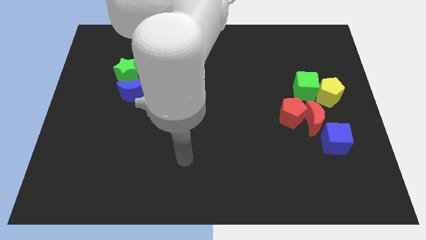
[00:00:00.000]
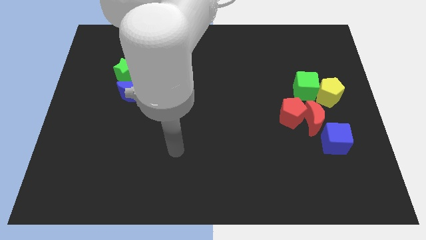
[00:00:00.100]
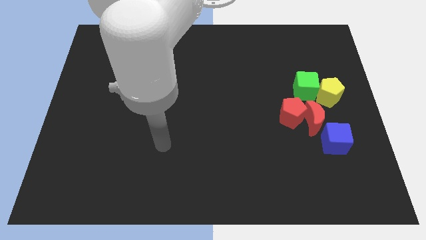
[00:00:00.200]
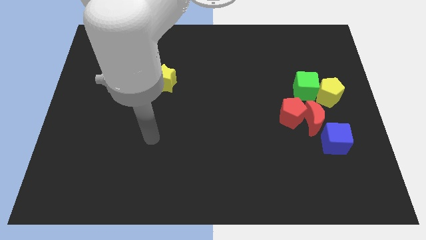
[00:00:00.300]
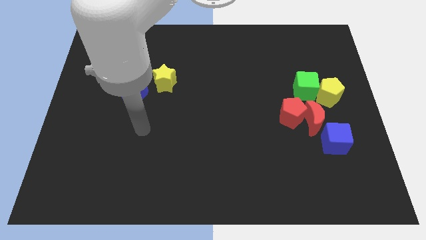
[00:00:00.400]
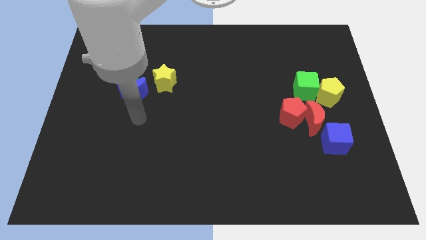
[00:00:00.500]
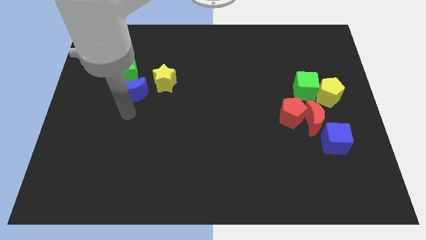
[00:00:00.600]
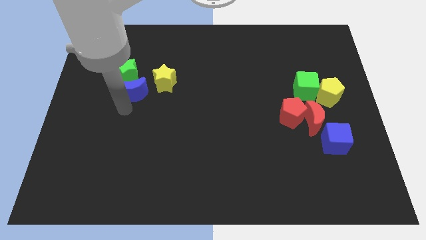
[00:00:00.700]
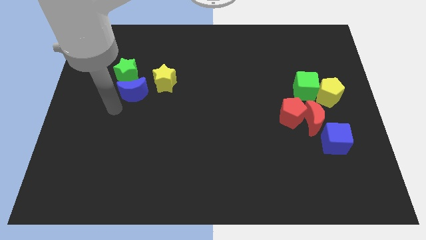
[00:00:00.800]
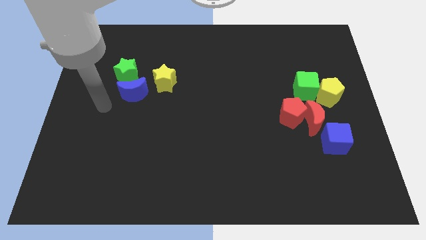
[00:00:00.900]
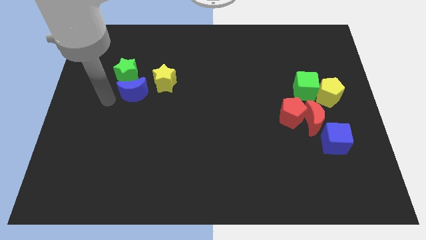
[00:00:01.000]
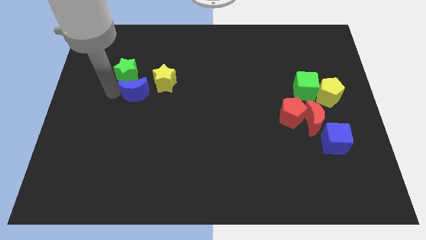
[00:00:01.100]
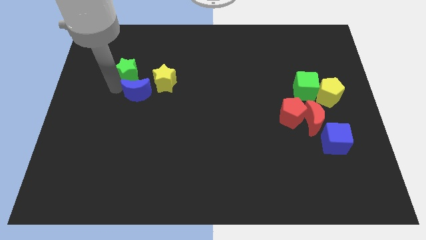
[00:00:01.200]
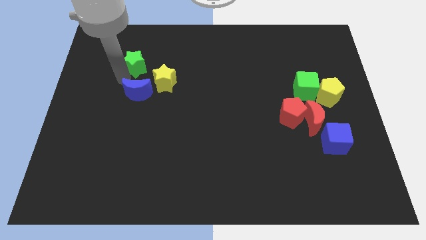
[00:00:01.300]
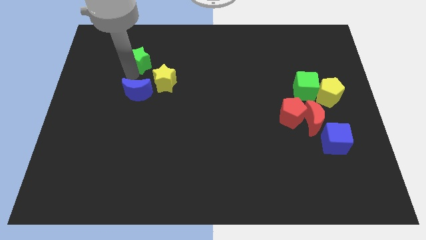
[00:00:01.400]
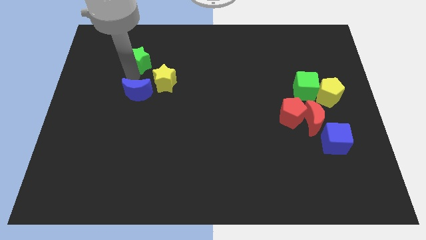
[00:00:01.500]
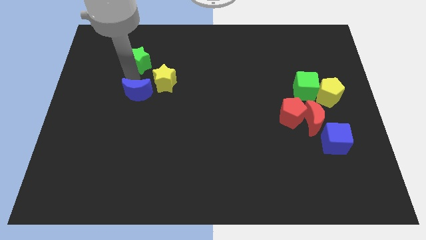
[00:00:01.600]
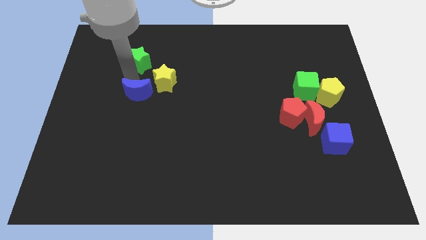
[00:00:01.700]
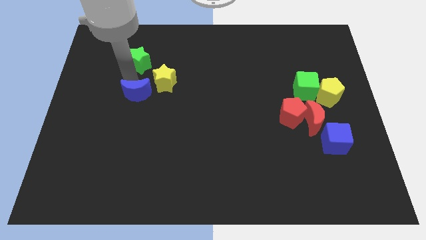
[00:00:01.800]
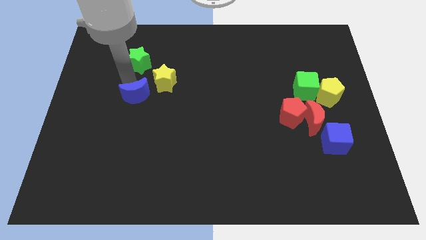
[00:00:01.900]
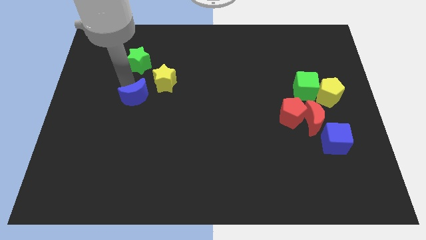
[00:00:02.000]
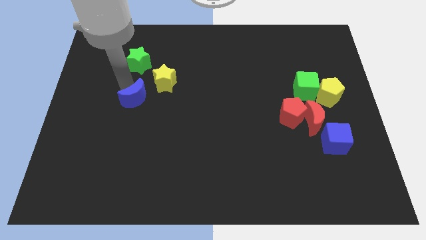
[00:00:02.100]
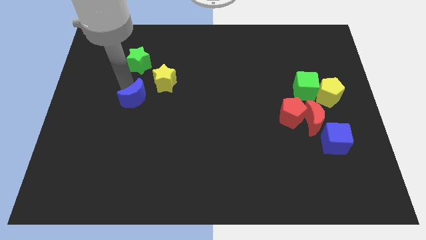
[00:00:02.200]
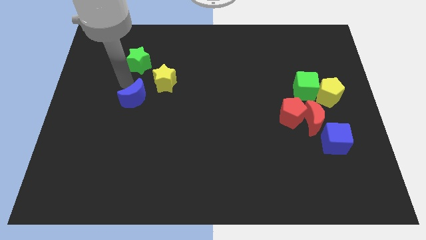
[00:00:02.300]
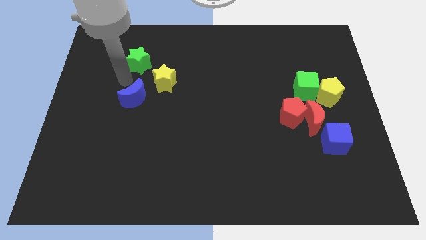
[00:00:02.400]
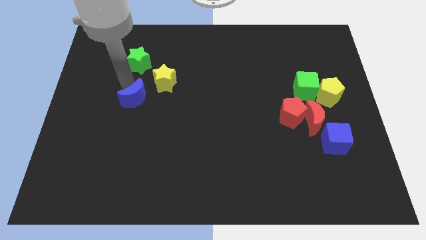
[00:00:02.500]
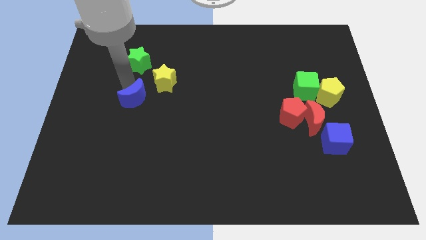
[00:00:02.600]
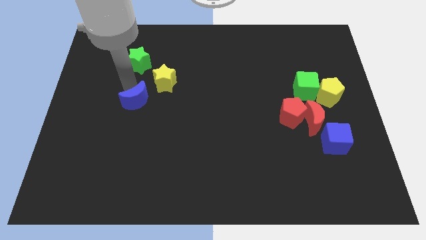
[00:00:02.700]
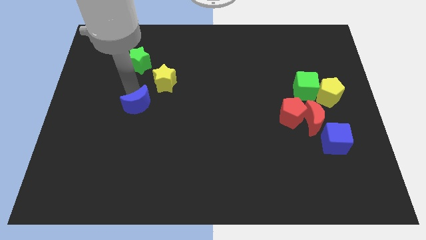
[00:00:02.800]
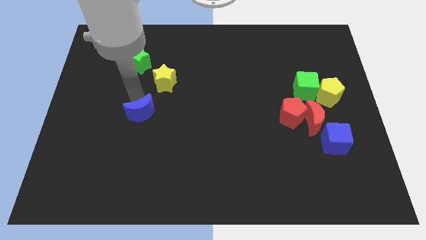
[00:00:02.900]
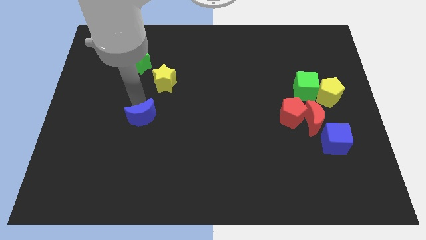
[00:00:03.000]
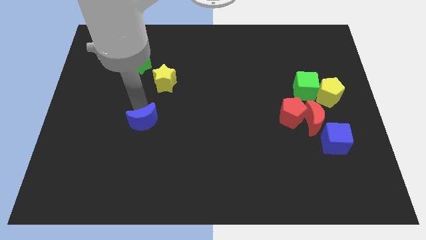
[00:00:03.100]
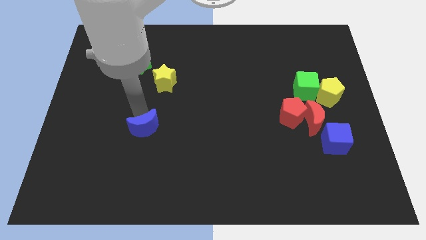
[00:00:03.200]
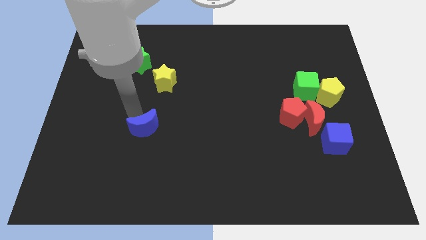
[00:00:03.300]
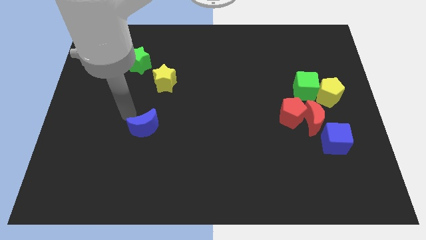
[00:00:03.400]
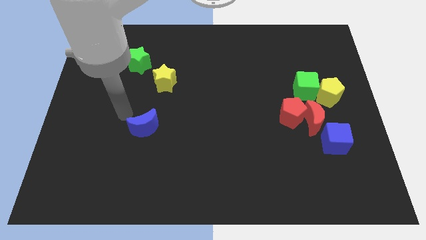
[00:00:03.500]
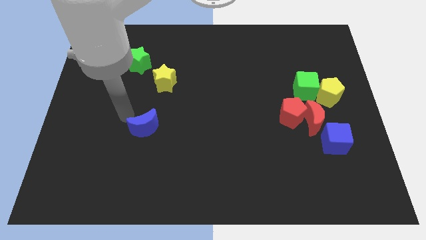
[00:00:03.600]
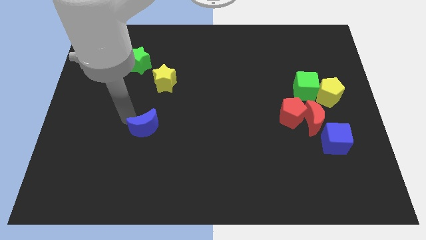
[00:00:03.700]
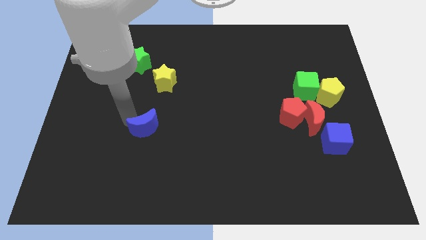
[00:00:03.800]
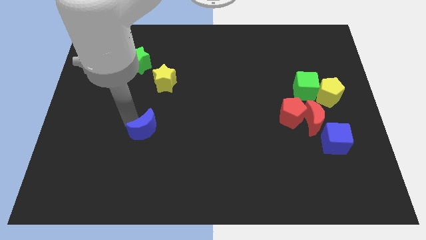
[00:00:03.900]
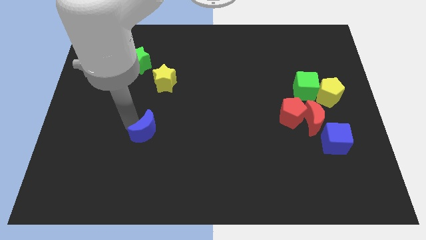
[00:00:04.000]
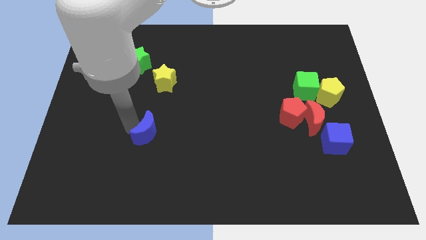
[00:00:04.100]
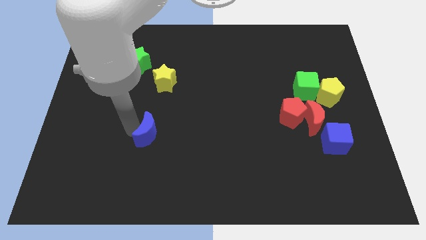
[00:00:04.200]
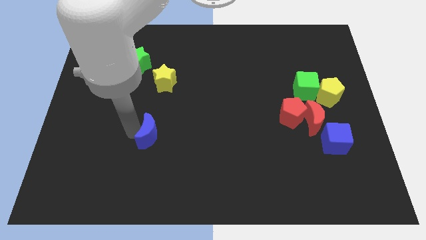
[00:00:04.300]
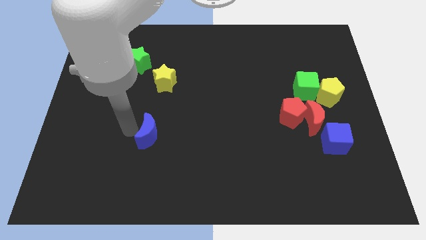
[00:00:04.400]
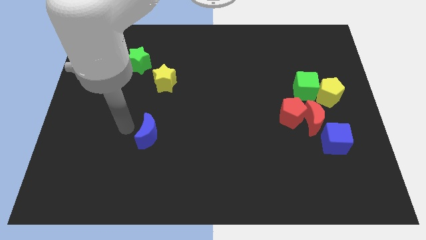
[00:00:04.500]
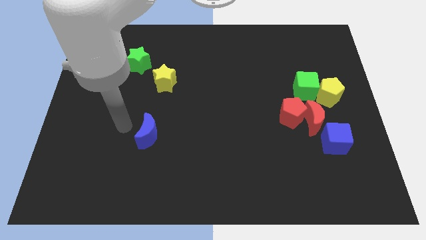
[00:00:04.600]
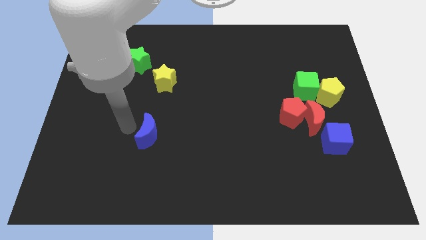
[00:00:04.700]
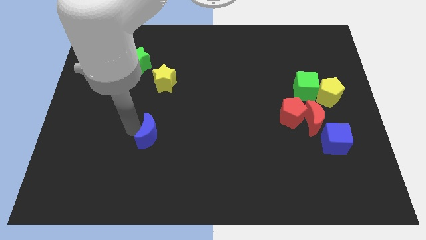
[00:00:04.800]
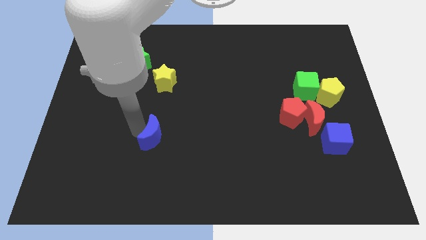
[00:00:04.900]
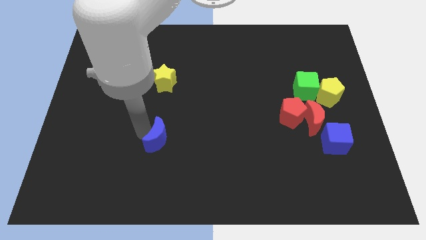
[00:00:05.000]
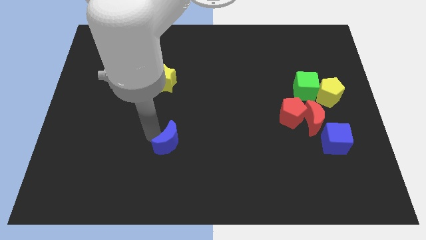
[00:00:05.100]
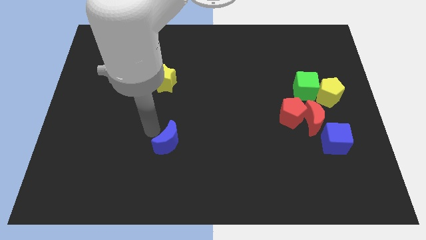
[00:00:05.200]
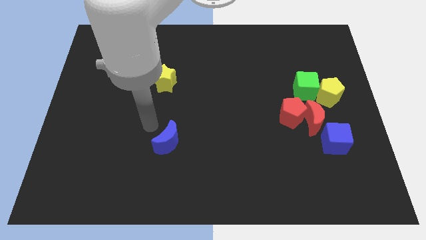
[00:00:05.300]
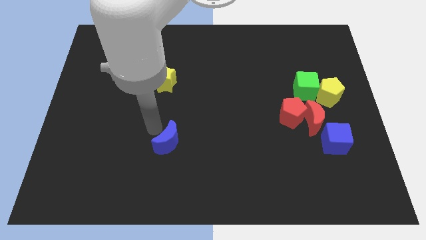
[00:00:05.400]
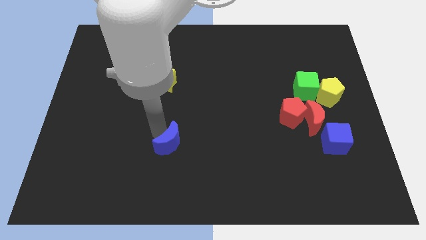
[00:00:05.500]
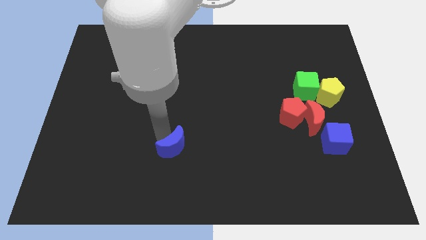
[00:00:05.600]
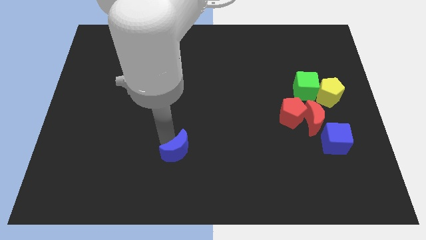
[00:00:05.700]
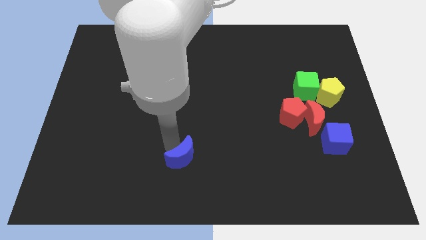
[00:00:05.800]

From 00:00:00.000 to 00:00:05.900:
move the blue moon downwards and right

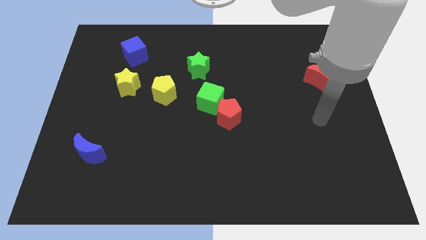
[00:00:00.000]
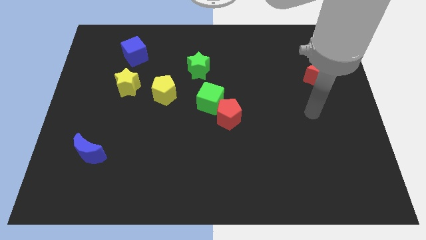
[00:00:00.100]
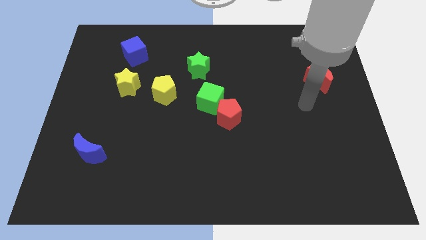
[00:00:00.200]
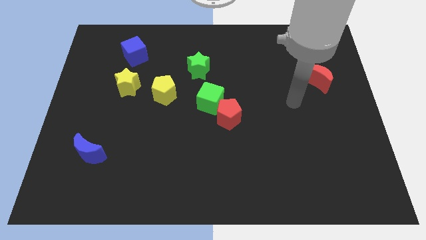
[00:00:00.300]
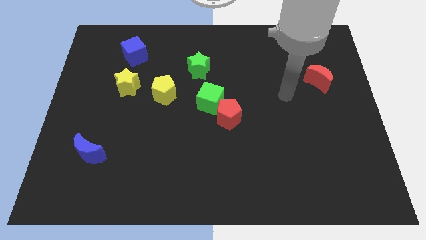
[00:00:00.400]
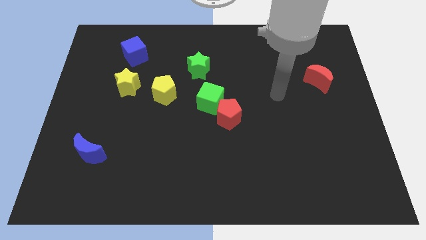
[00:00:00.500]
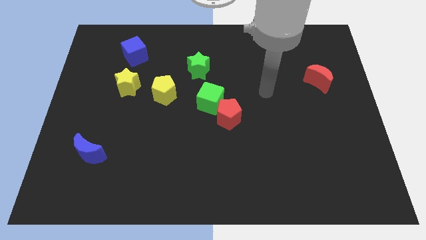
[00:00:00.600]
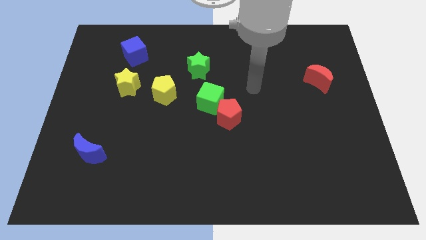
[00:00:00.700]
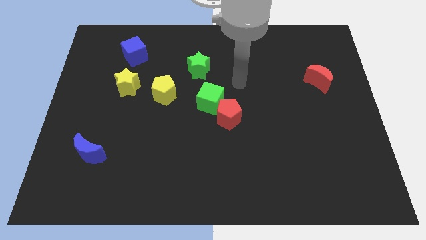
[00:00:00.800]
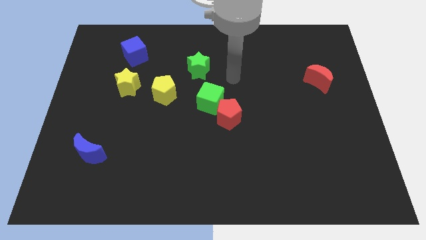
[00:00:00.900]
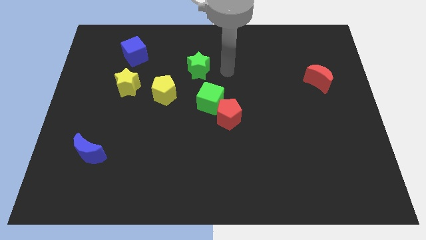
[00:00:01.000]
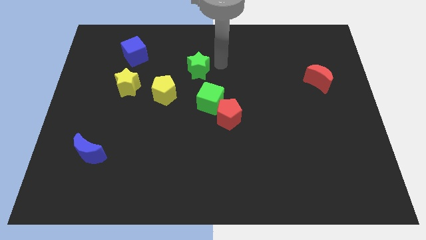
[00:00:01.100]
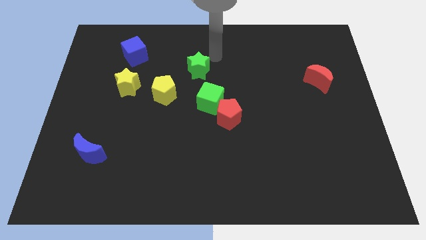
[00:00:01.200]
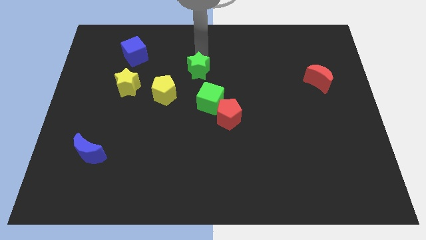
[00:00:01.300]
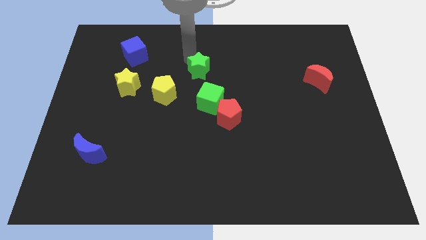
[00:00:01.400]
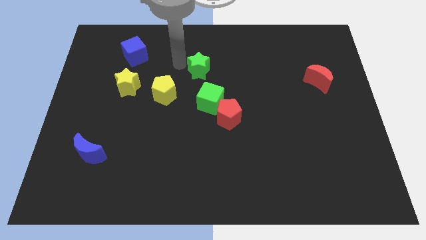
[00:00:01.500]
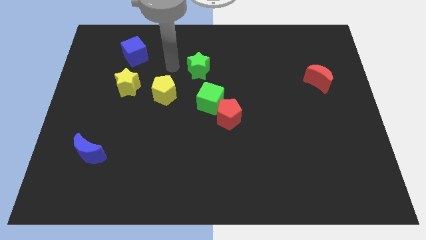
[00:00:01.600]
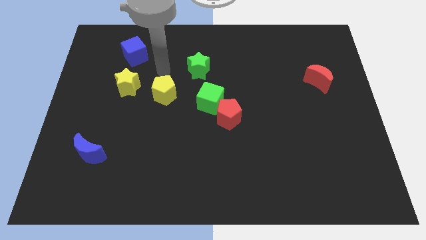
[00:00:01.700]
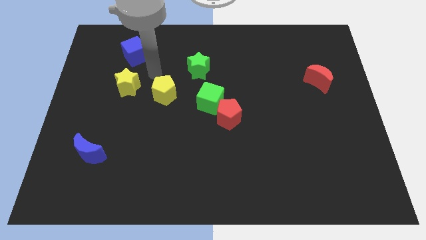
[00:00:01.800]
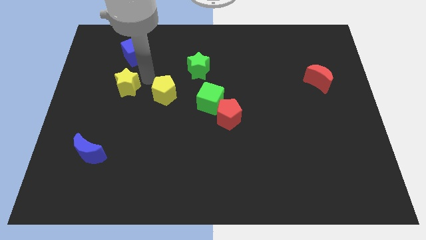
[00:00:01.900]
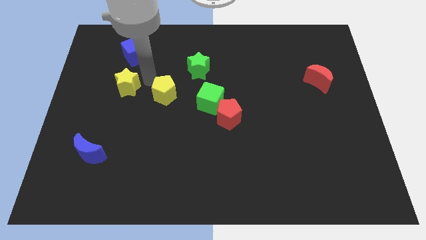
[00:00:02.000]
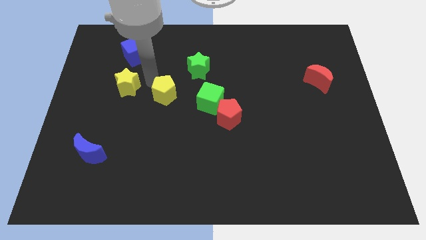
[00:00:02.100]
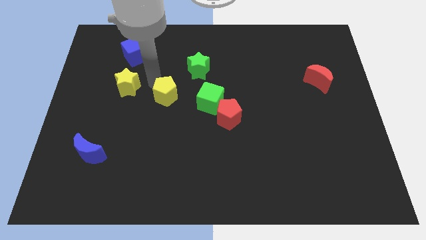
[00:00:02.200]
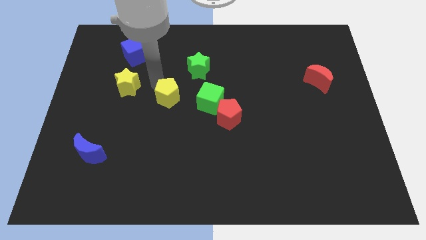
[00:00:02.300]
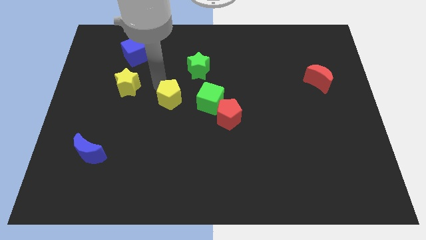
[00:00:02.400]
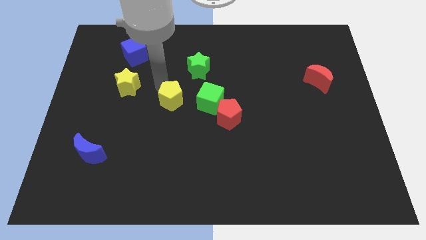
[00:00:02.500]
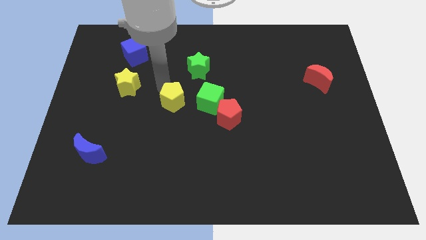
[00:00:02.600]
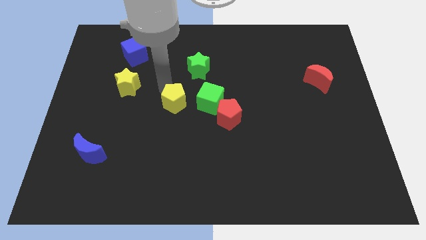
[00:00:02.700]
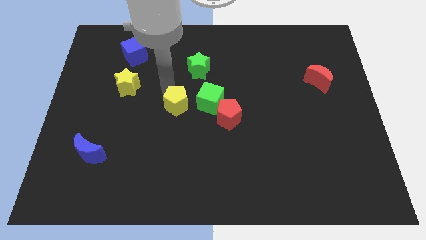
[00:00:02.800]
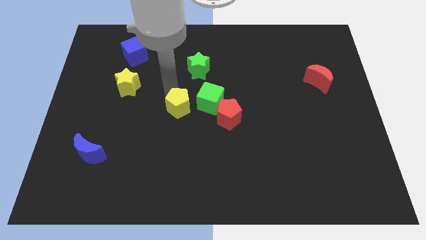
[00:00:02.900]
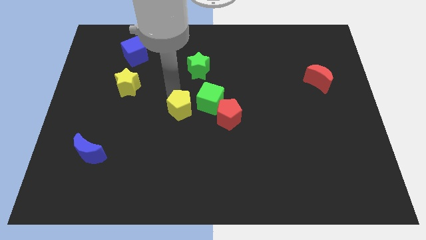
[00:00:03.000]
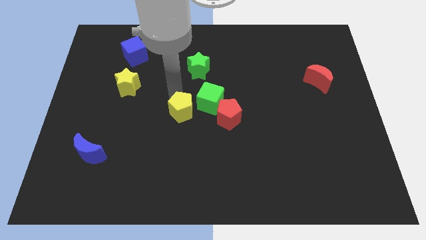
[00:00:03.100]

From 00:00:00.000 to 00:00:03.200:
slightly move the yellow pentagon down and right diagonally
